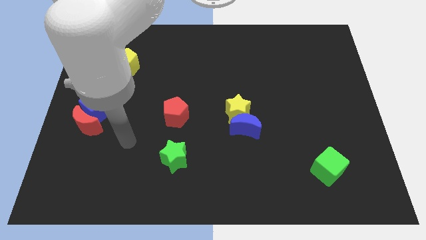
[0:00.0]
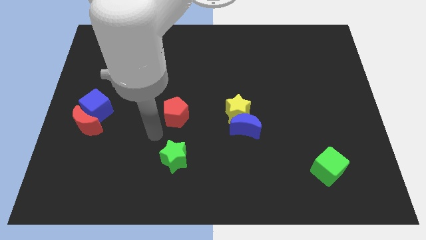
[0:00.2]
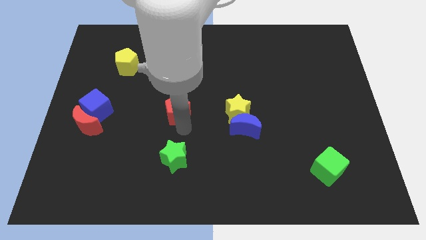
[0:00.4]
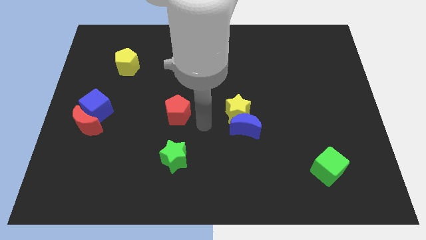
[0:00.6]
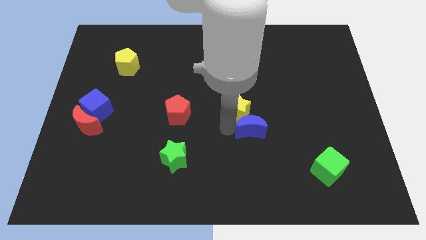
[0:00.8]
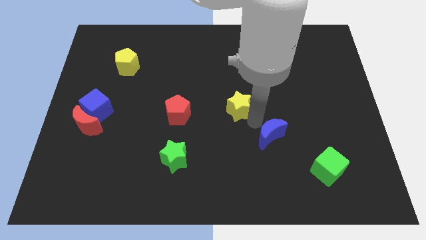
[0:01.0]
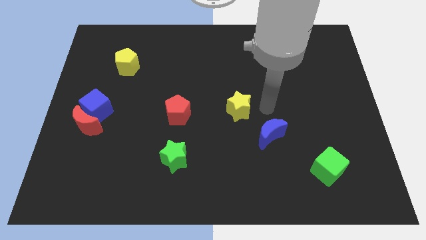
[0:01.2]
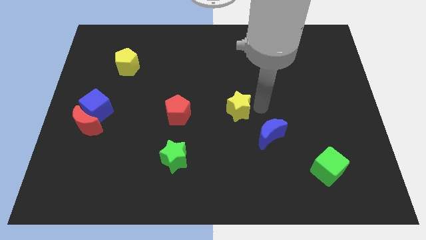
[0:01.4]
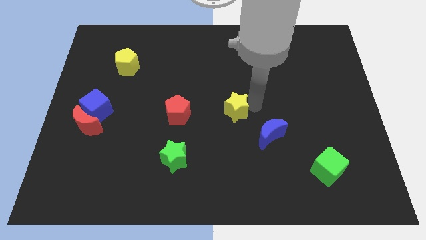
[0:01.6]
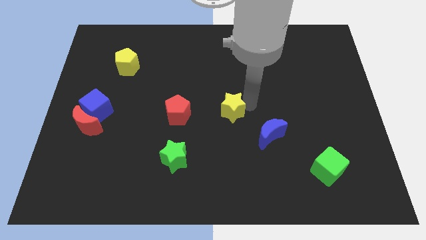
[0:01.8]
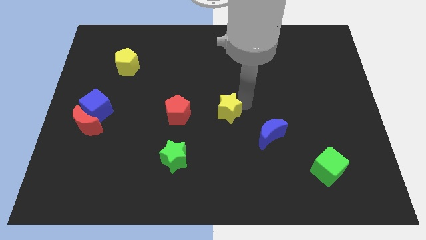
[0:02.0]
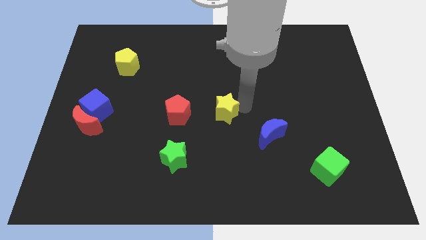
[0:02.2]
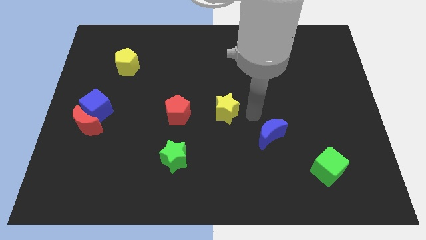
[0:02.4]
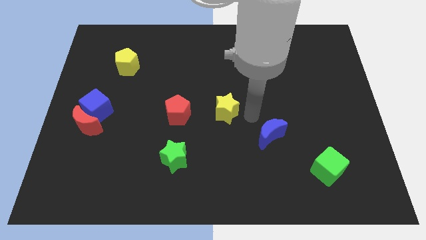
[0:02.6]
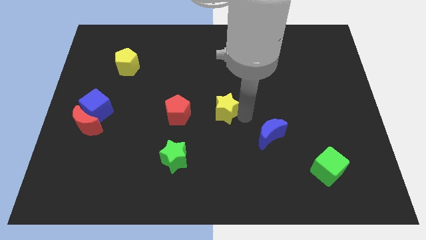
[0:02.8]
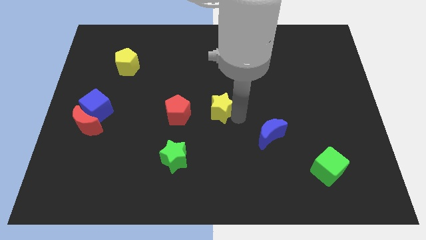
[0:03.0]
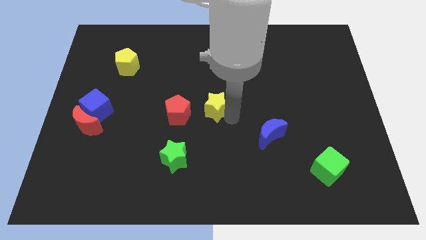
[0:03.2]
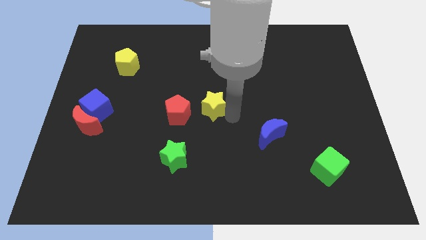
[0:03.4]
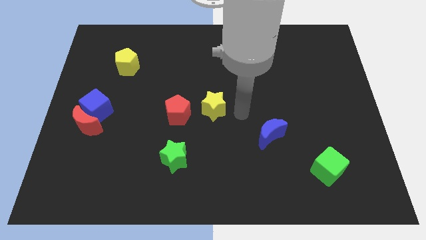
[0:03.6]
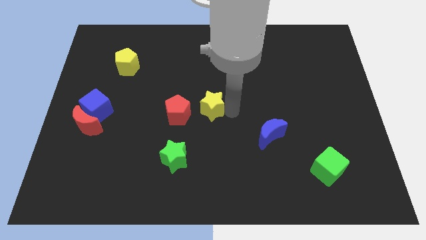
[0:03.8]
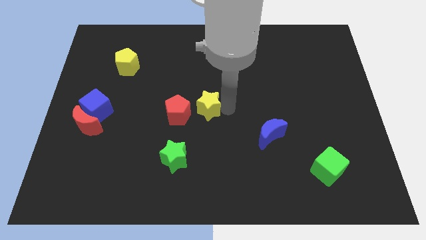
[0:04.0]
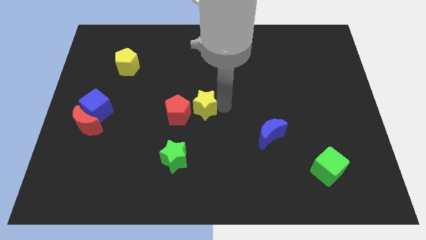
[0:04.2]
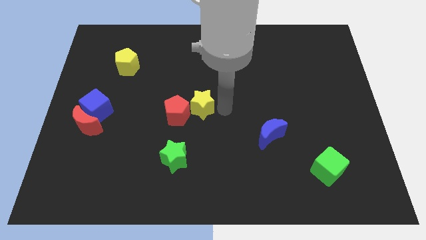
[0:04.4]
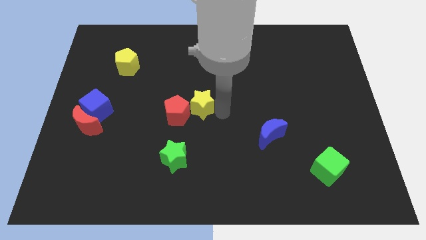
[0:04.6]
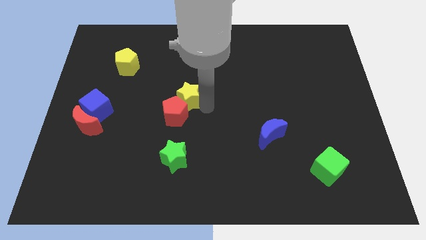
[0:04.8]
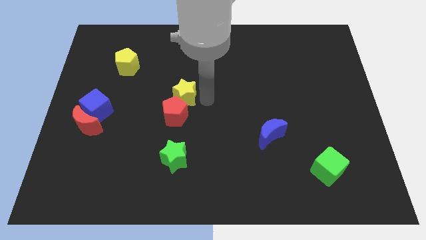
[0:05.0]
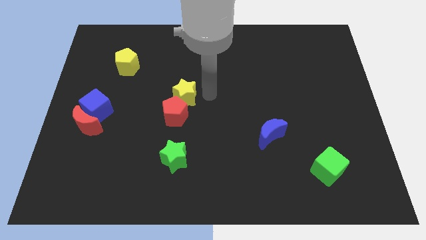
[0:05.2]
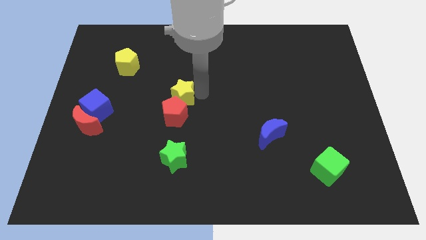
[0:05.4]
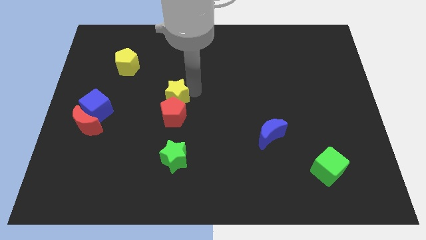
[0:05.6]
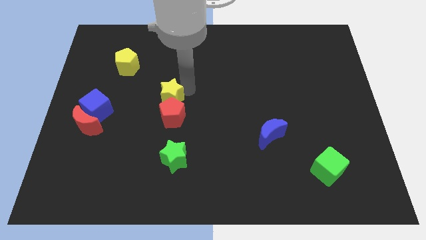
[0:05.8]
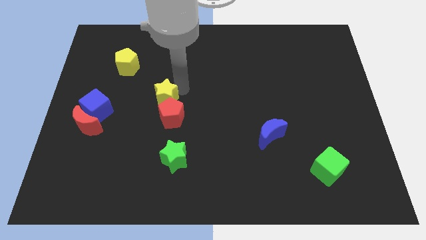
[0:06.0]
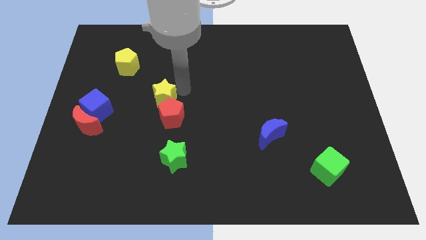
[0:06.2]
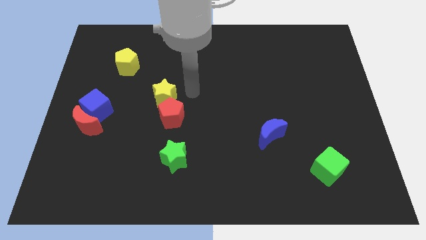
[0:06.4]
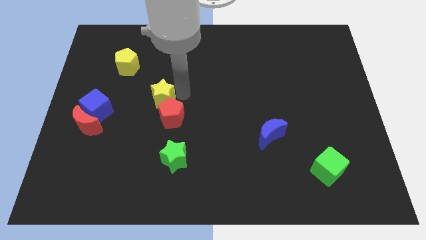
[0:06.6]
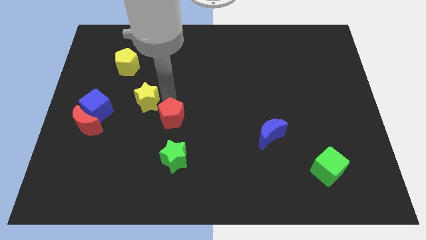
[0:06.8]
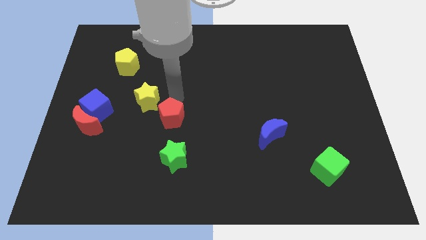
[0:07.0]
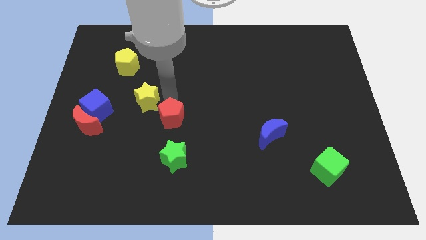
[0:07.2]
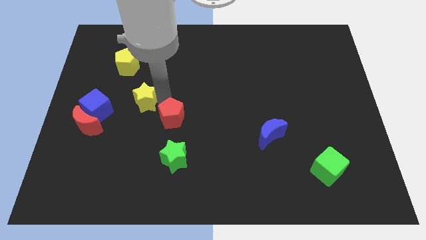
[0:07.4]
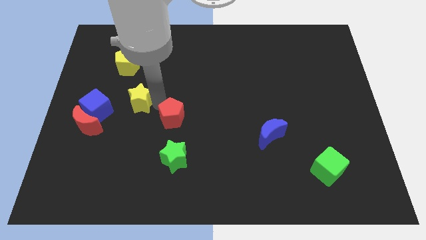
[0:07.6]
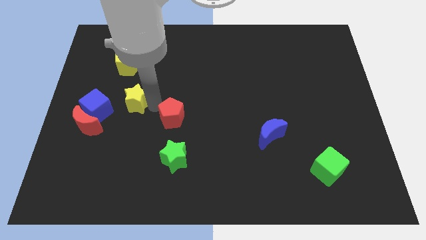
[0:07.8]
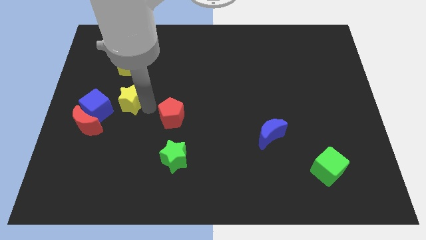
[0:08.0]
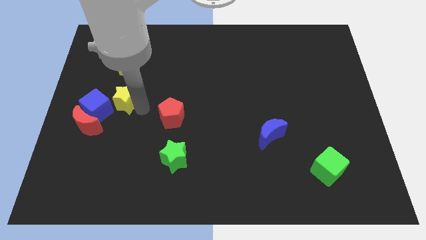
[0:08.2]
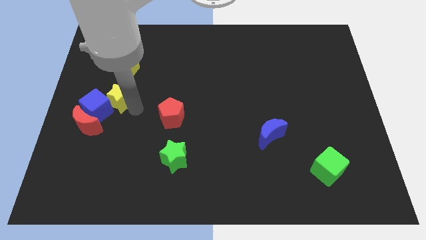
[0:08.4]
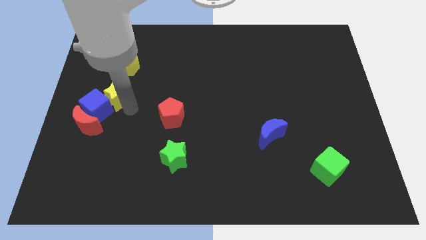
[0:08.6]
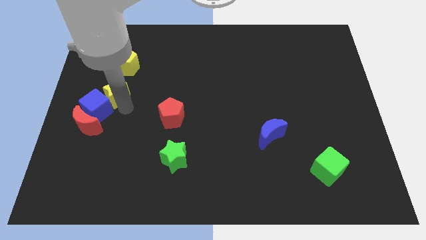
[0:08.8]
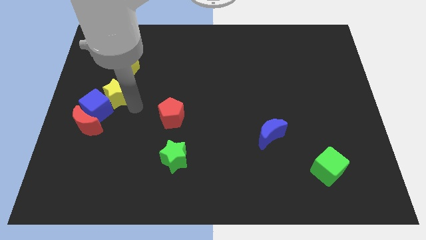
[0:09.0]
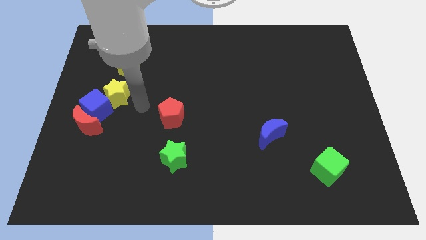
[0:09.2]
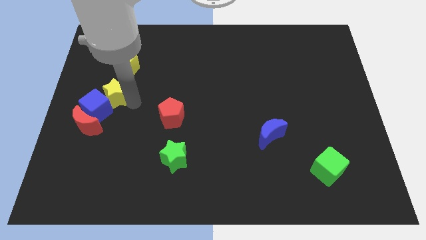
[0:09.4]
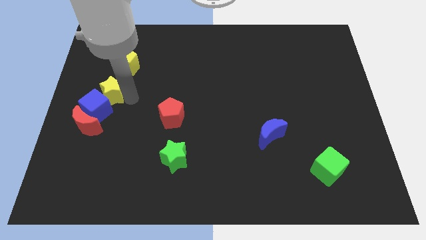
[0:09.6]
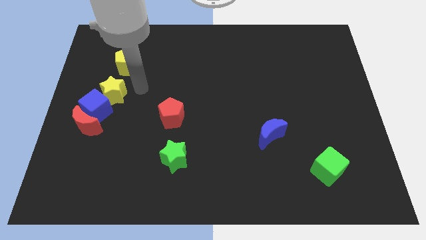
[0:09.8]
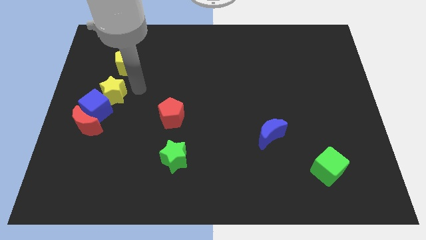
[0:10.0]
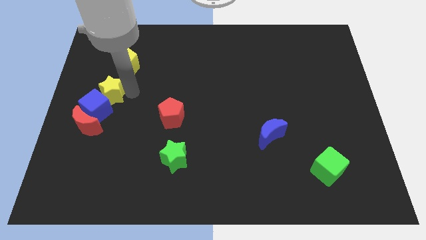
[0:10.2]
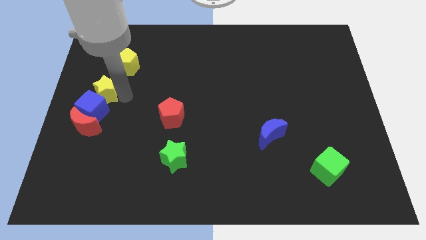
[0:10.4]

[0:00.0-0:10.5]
put the yellow star to the center left

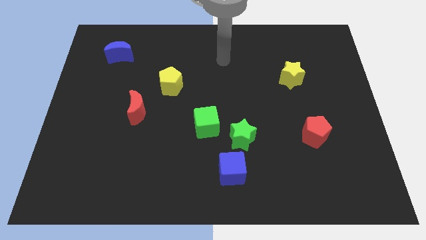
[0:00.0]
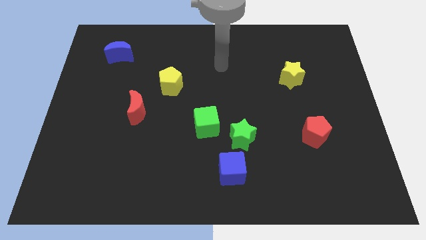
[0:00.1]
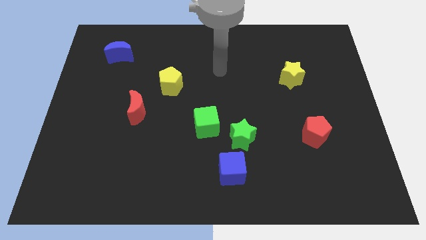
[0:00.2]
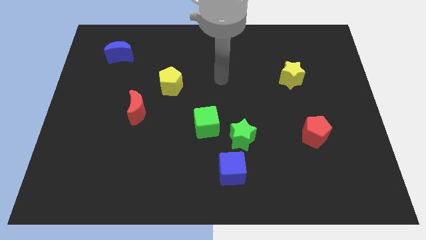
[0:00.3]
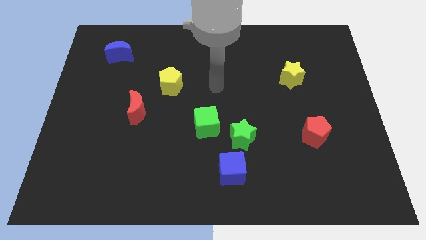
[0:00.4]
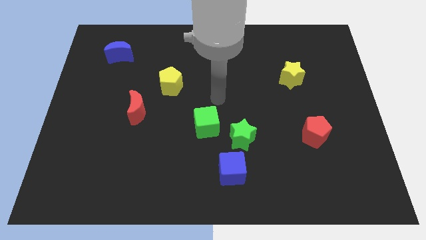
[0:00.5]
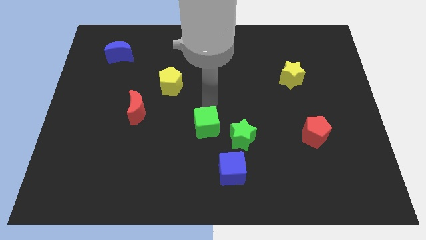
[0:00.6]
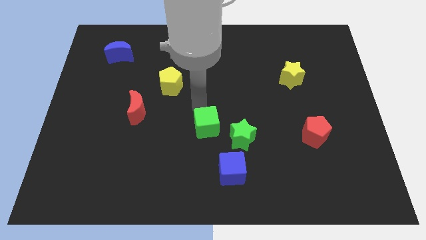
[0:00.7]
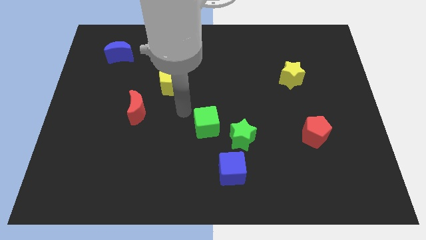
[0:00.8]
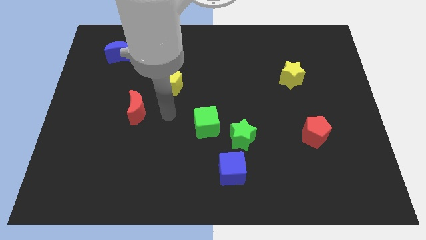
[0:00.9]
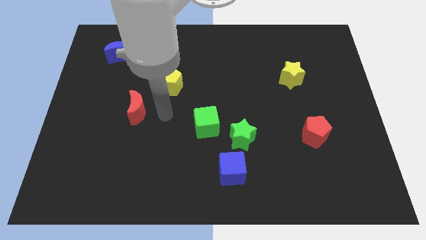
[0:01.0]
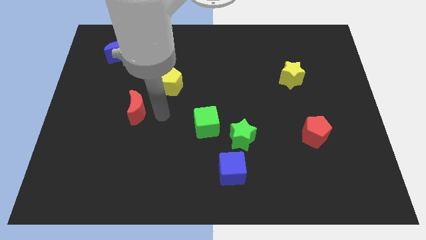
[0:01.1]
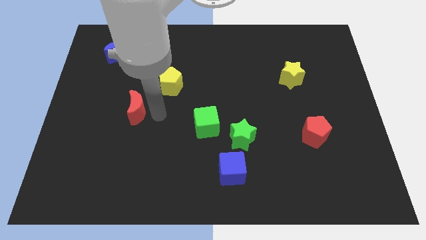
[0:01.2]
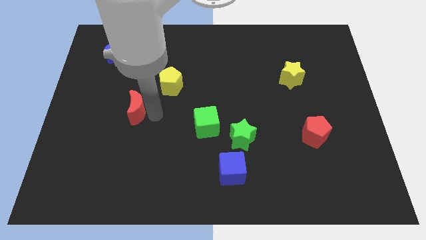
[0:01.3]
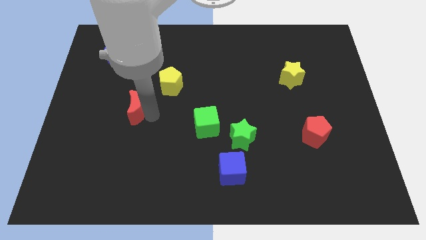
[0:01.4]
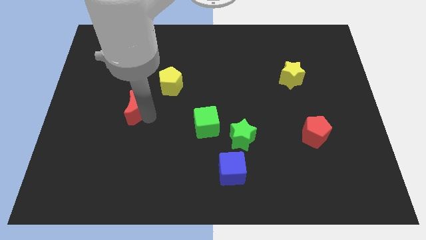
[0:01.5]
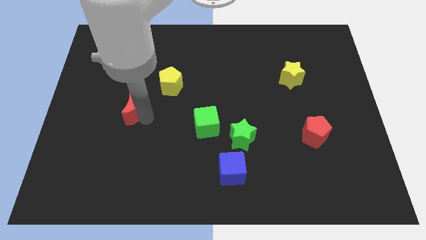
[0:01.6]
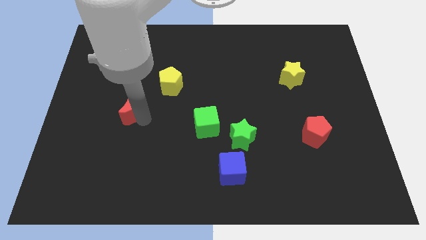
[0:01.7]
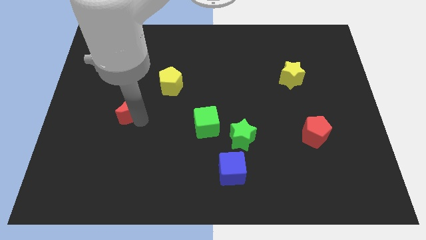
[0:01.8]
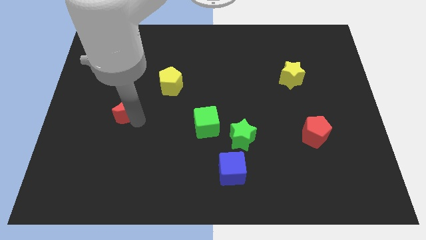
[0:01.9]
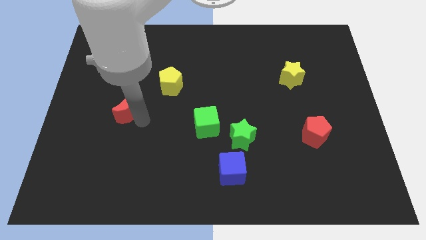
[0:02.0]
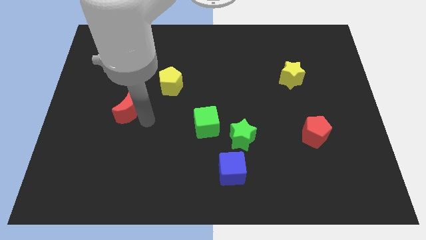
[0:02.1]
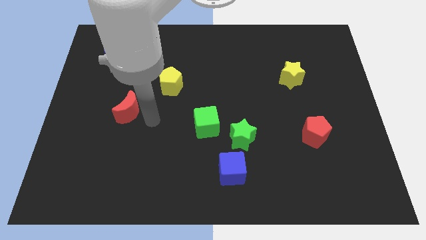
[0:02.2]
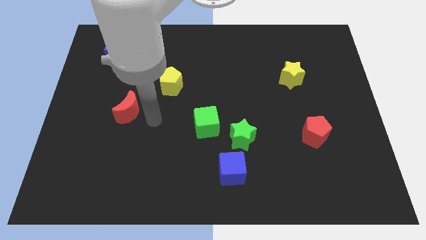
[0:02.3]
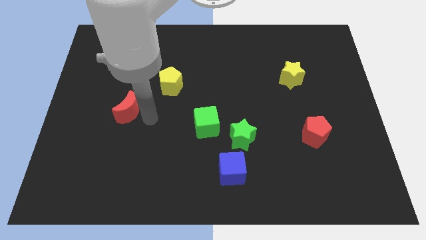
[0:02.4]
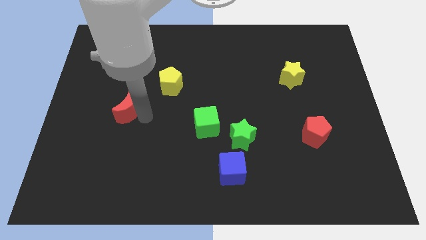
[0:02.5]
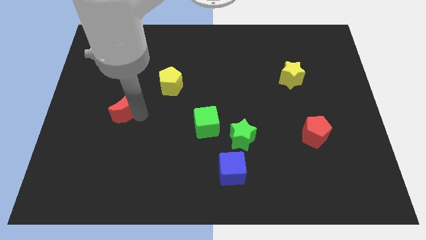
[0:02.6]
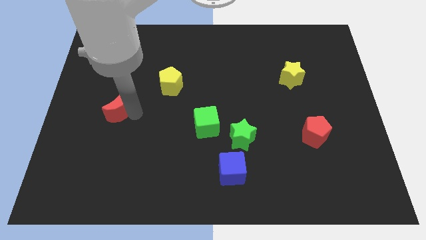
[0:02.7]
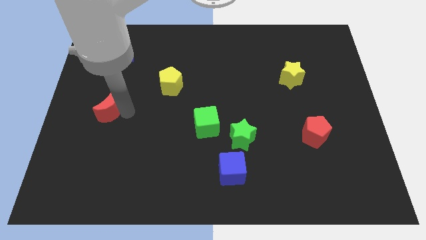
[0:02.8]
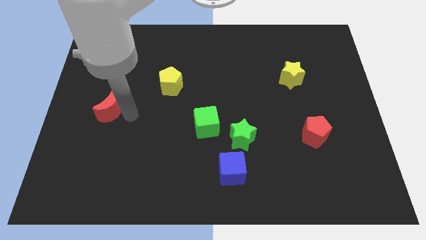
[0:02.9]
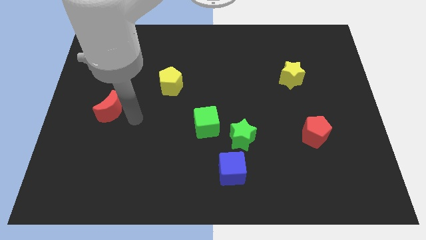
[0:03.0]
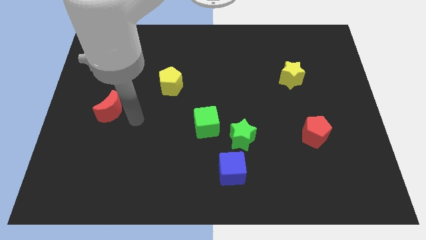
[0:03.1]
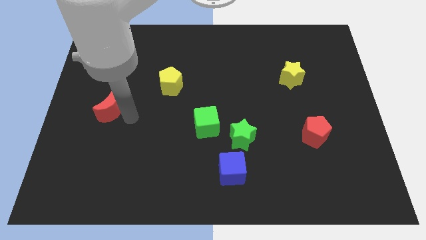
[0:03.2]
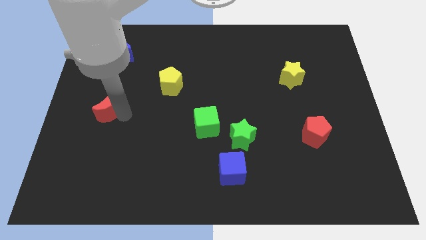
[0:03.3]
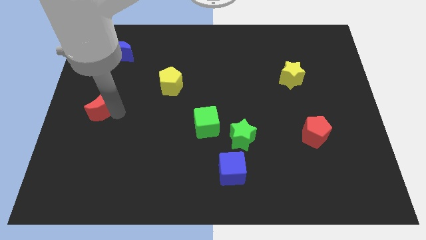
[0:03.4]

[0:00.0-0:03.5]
push the red moon to the left side of the board
